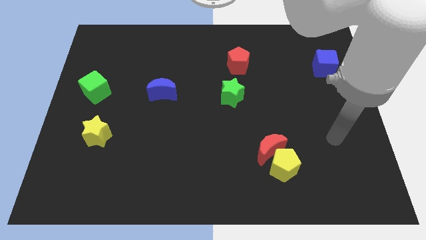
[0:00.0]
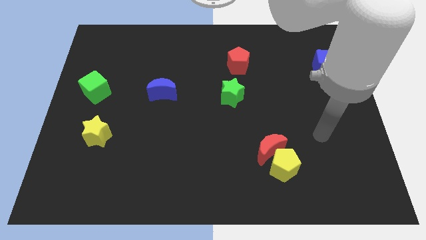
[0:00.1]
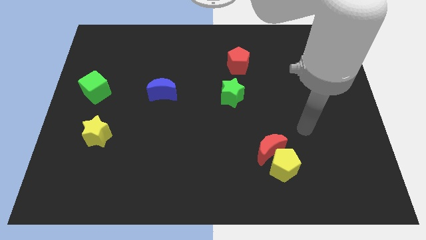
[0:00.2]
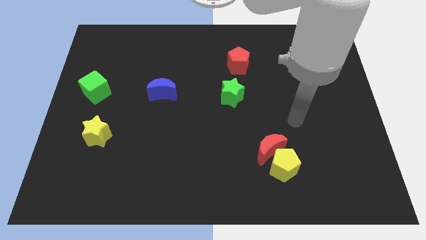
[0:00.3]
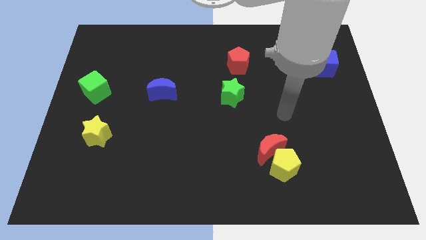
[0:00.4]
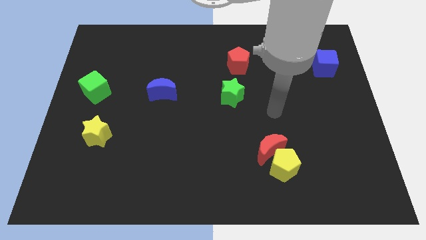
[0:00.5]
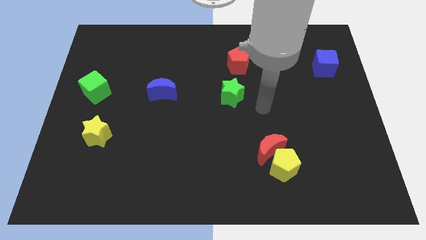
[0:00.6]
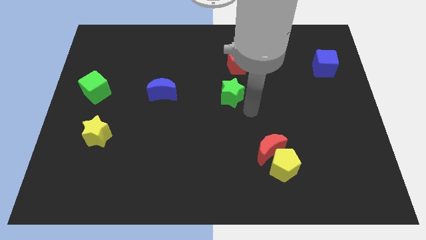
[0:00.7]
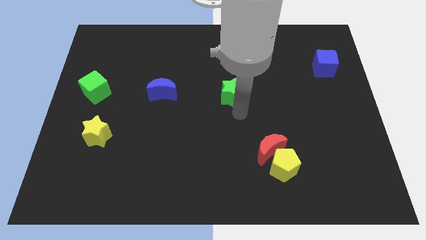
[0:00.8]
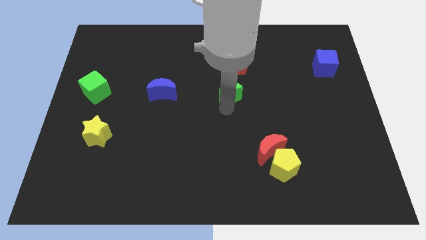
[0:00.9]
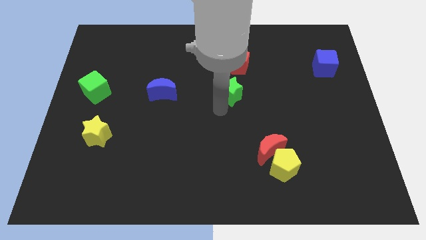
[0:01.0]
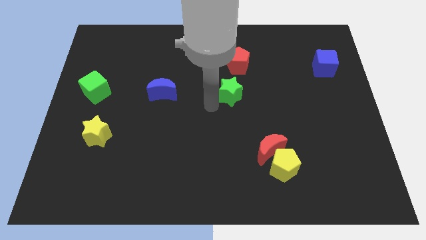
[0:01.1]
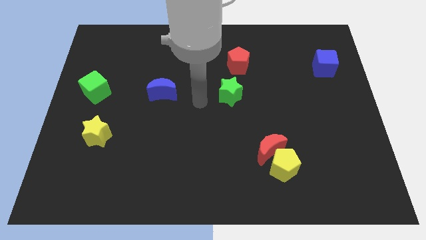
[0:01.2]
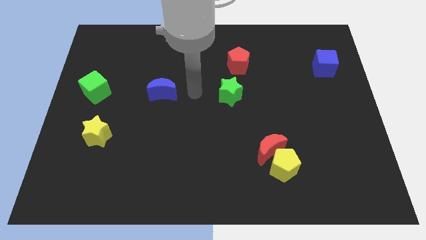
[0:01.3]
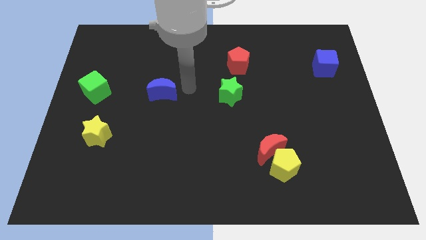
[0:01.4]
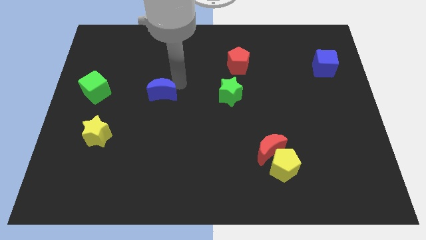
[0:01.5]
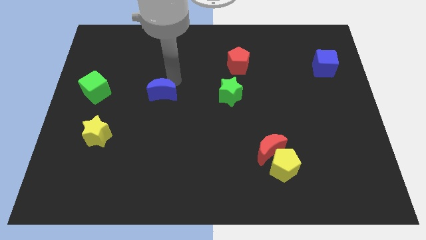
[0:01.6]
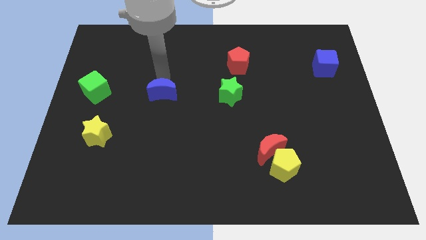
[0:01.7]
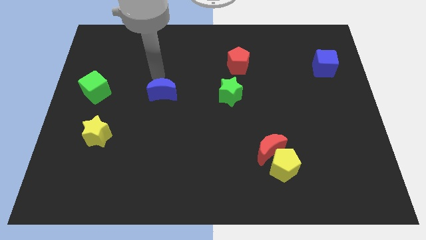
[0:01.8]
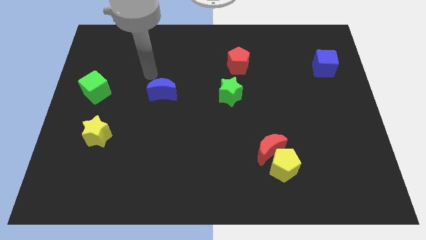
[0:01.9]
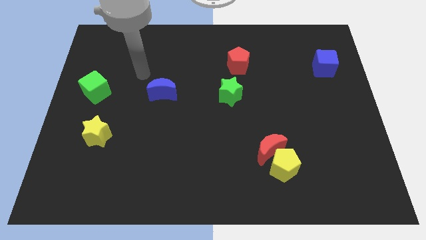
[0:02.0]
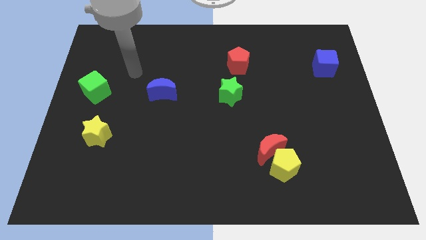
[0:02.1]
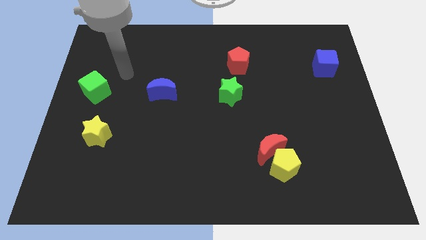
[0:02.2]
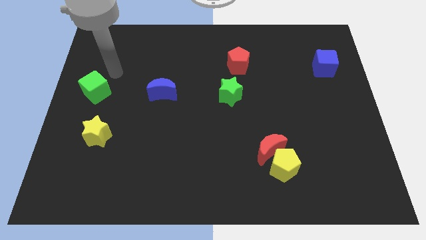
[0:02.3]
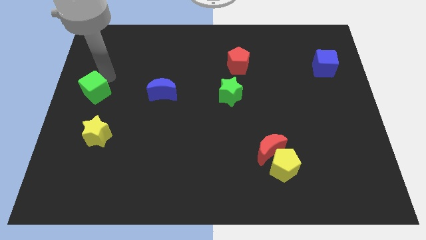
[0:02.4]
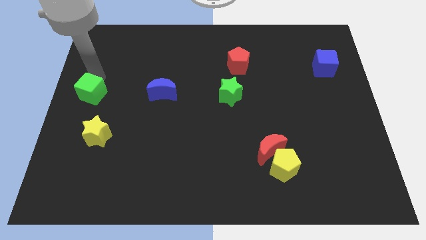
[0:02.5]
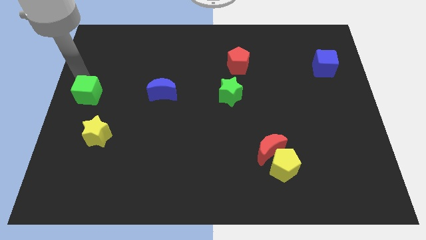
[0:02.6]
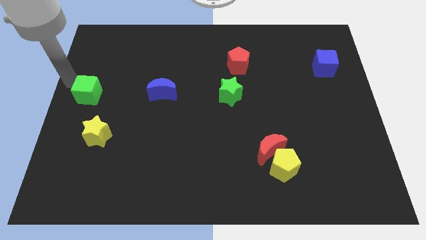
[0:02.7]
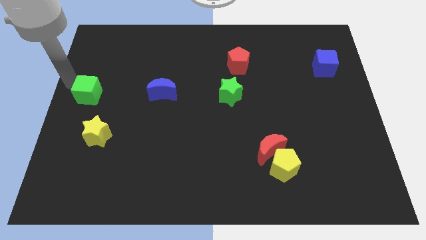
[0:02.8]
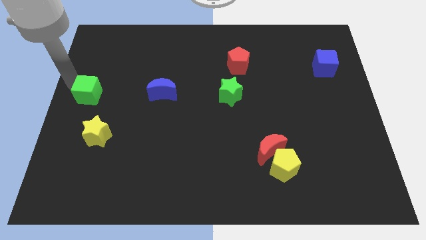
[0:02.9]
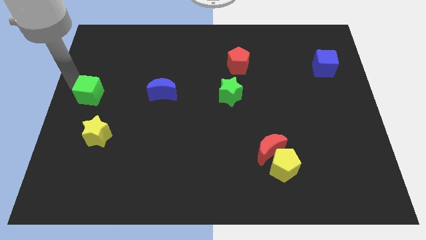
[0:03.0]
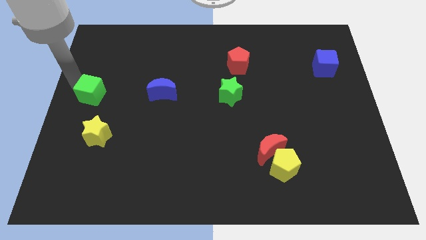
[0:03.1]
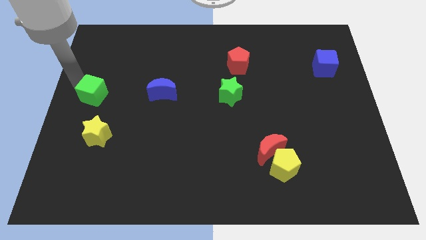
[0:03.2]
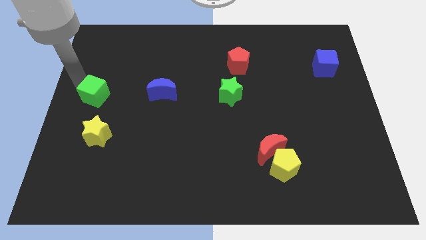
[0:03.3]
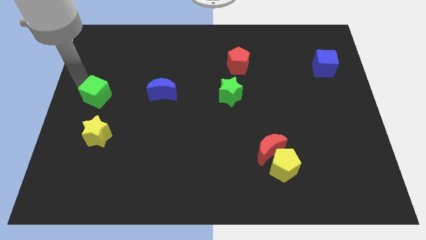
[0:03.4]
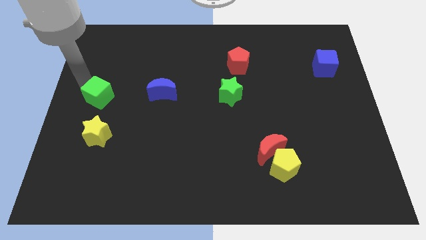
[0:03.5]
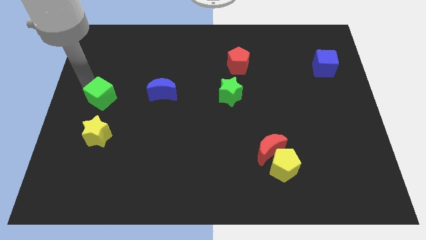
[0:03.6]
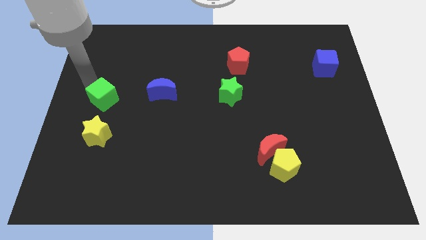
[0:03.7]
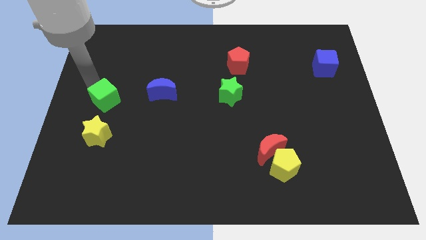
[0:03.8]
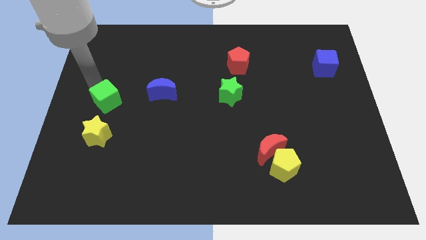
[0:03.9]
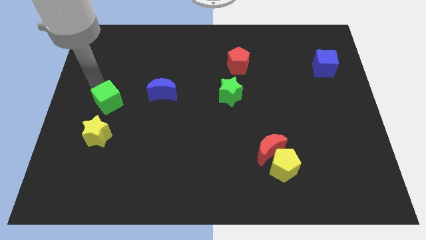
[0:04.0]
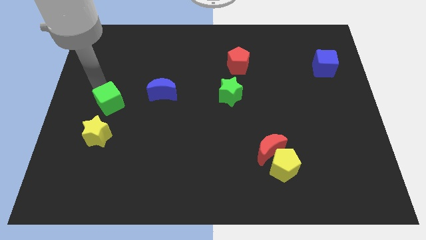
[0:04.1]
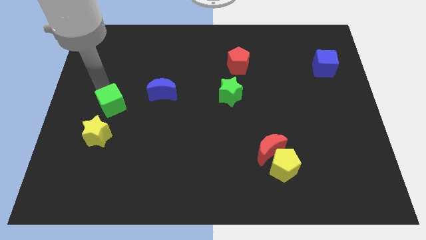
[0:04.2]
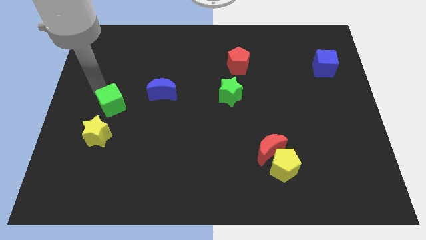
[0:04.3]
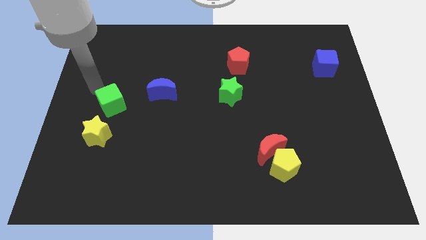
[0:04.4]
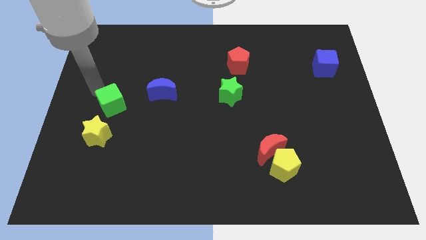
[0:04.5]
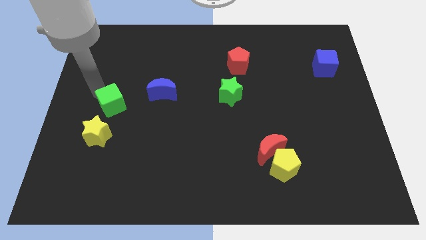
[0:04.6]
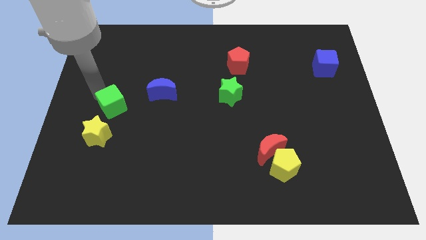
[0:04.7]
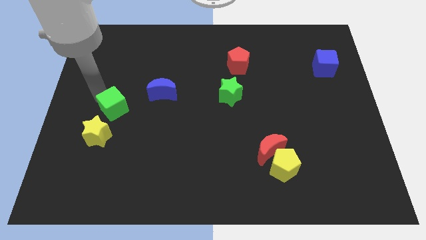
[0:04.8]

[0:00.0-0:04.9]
slightly move the green cube down and to the right diagonally

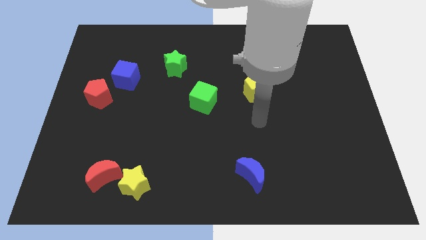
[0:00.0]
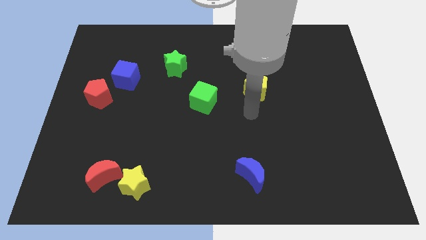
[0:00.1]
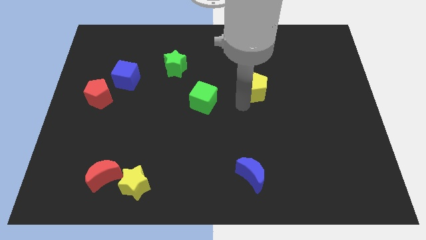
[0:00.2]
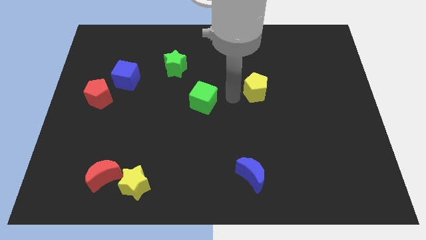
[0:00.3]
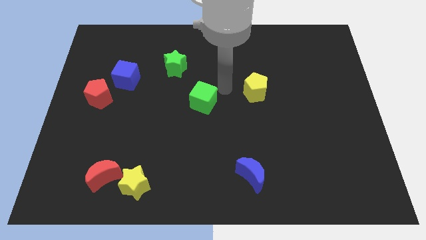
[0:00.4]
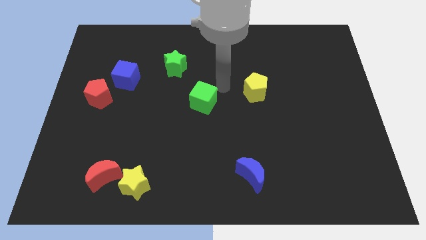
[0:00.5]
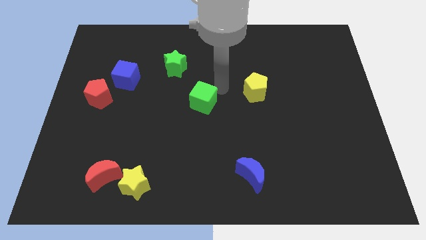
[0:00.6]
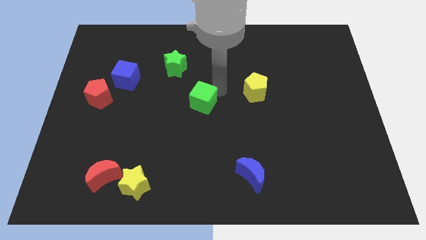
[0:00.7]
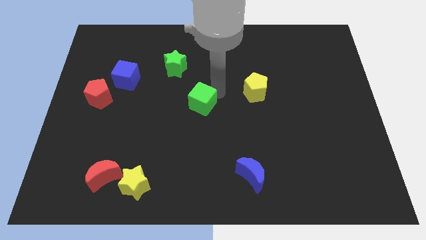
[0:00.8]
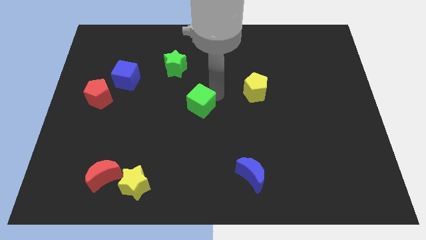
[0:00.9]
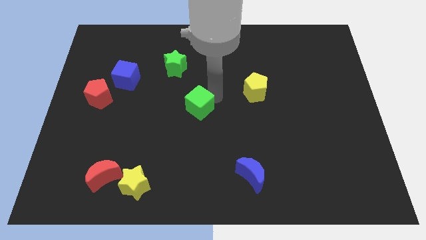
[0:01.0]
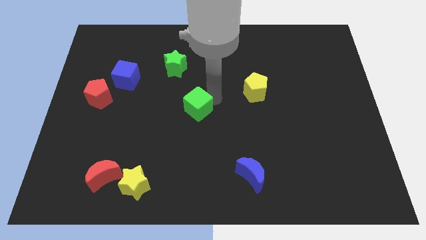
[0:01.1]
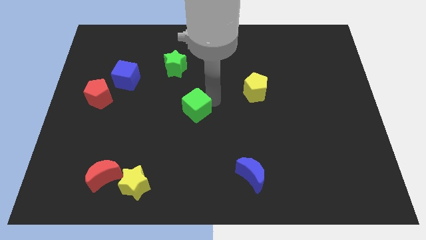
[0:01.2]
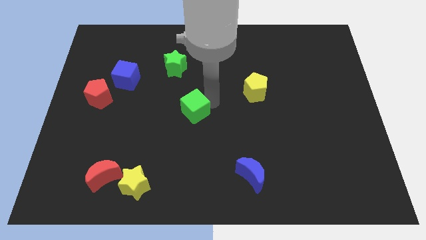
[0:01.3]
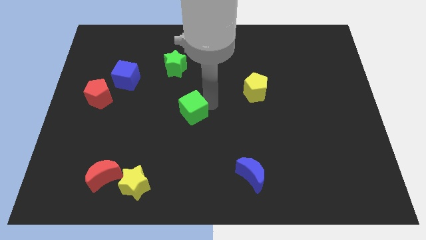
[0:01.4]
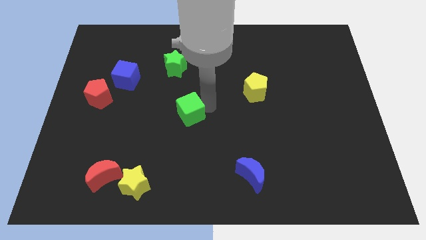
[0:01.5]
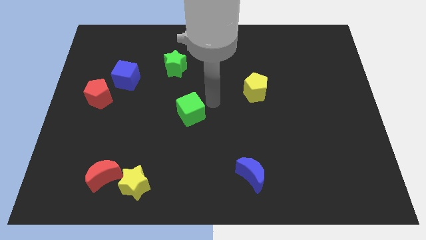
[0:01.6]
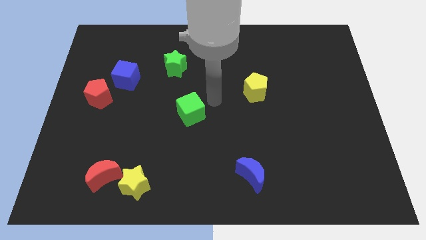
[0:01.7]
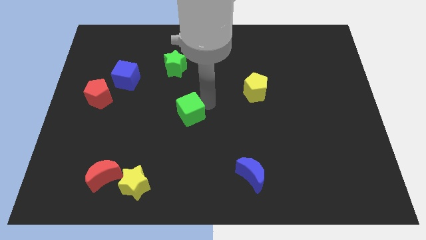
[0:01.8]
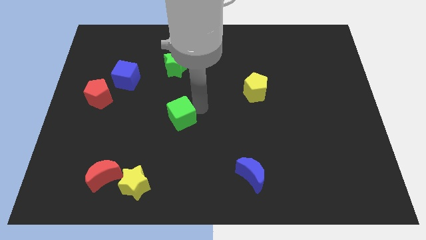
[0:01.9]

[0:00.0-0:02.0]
move the green cube downwards and to the left diagonally a bit

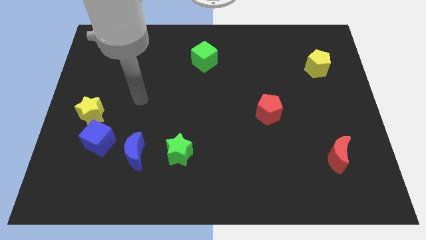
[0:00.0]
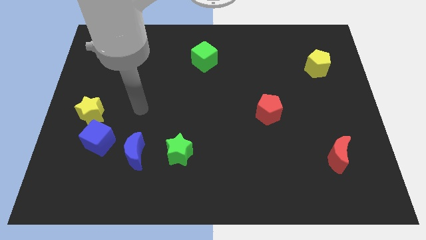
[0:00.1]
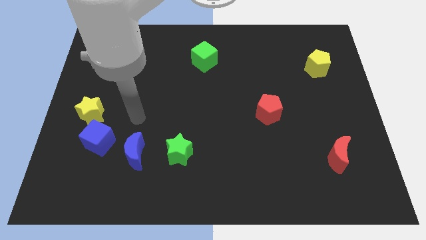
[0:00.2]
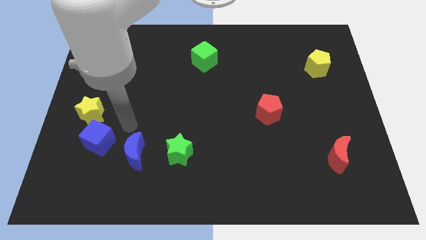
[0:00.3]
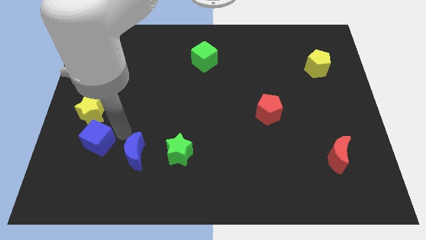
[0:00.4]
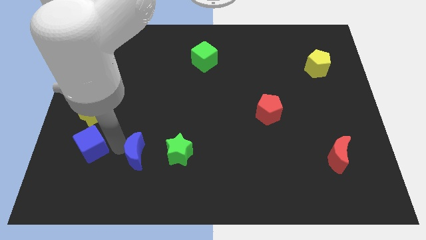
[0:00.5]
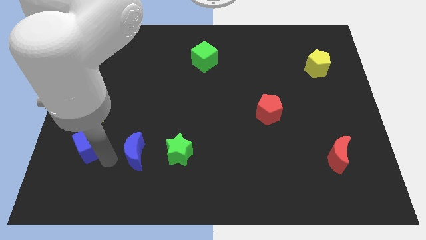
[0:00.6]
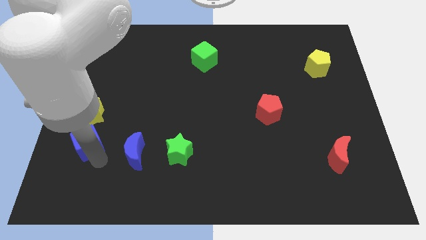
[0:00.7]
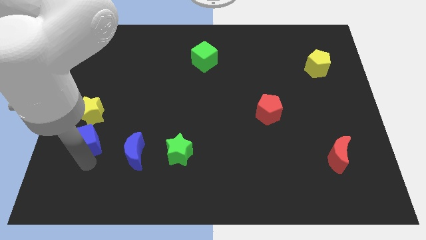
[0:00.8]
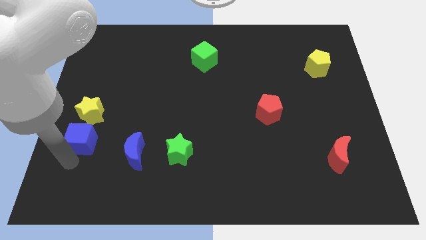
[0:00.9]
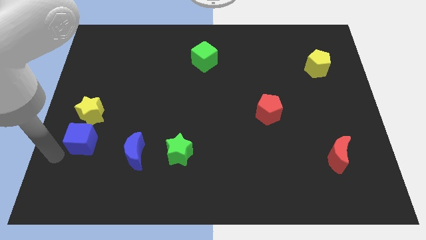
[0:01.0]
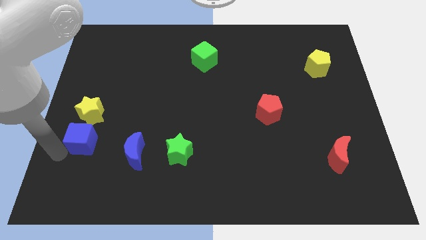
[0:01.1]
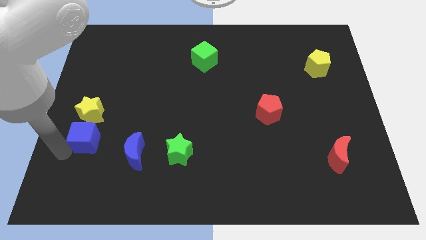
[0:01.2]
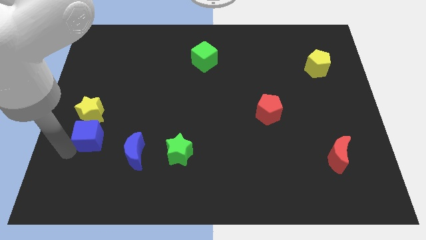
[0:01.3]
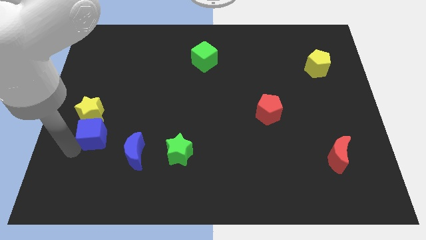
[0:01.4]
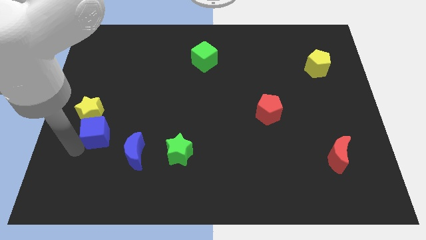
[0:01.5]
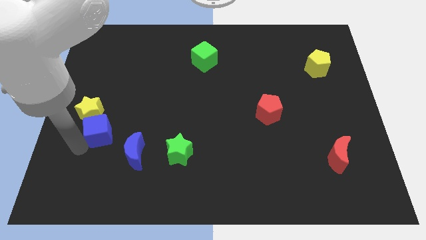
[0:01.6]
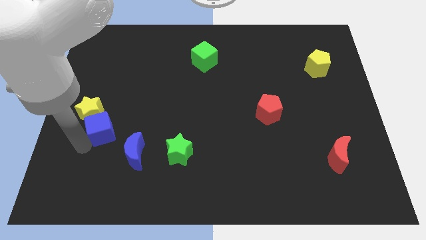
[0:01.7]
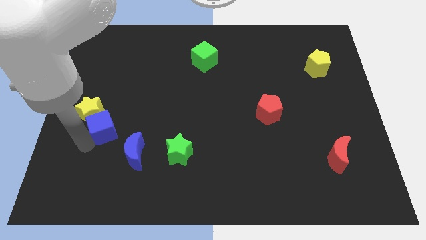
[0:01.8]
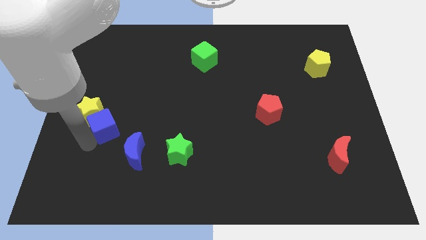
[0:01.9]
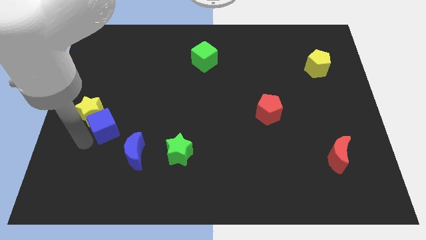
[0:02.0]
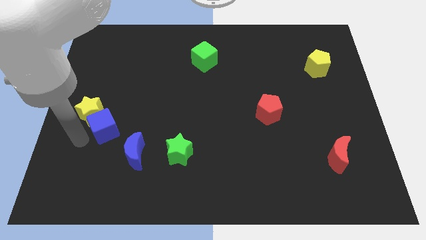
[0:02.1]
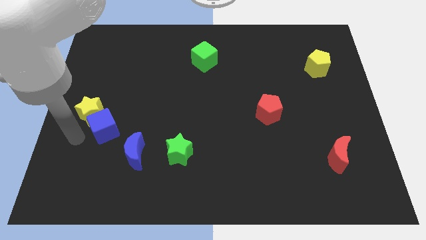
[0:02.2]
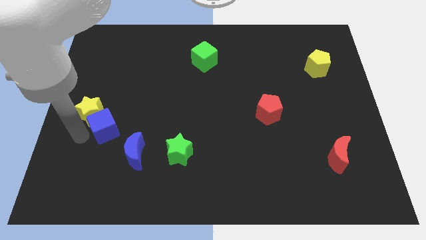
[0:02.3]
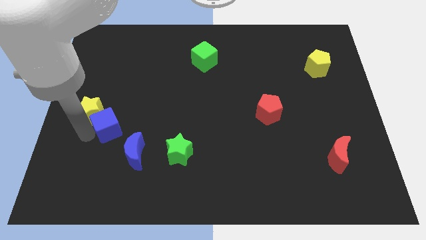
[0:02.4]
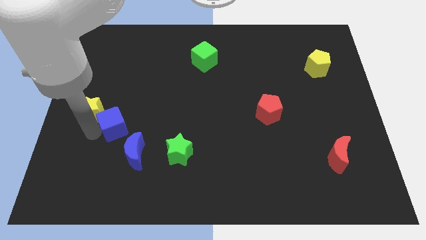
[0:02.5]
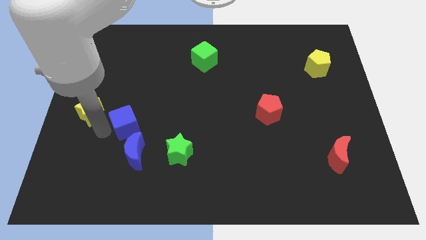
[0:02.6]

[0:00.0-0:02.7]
slide the blue cube upwards and to the right a little
